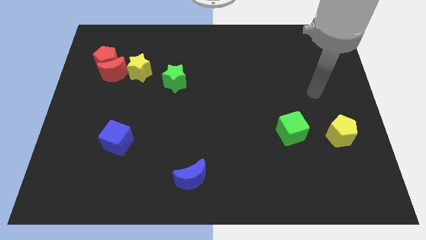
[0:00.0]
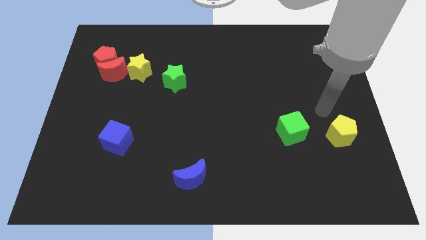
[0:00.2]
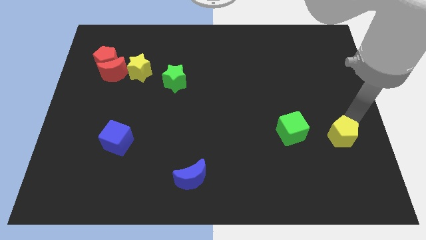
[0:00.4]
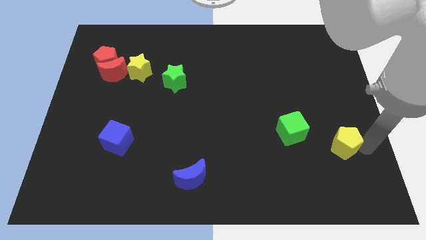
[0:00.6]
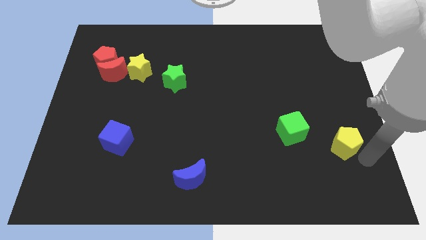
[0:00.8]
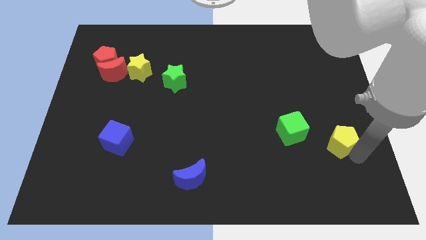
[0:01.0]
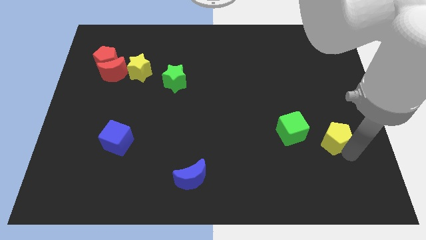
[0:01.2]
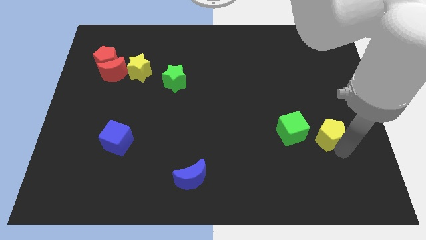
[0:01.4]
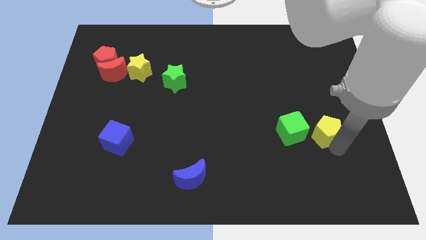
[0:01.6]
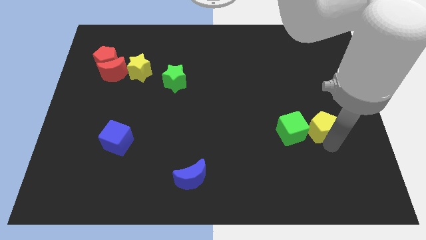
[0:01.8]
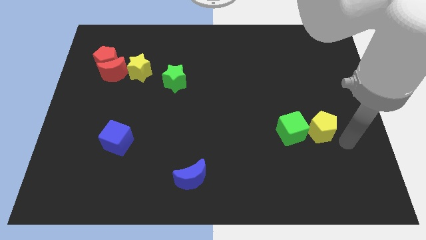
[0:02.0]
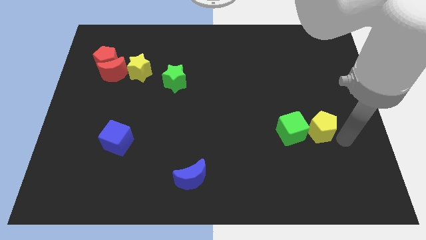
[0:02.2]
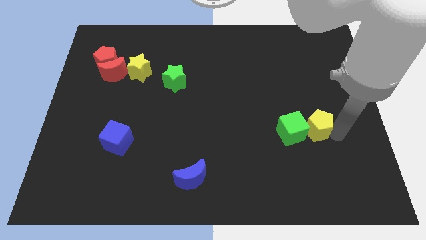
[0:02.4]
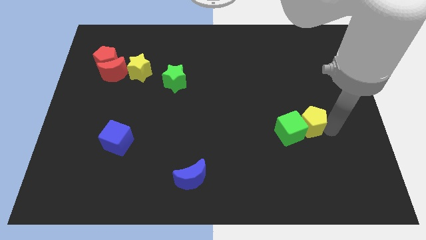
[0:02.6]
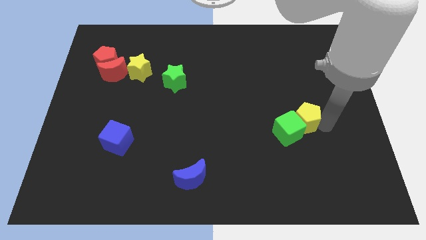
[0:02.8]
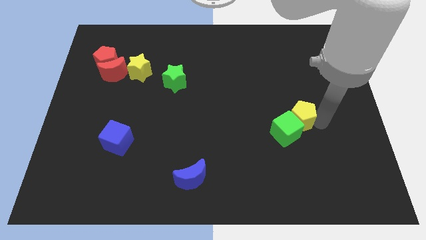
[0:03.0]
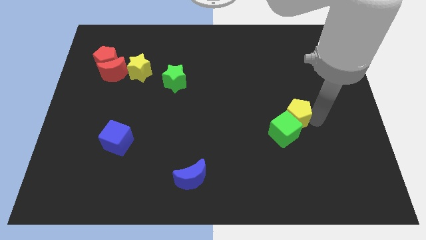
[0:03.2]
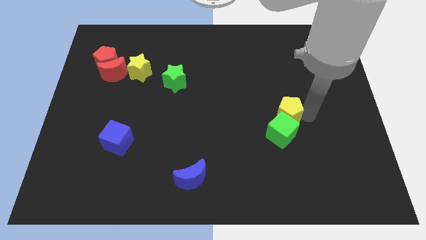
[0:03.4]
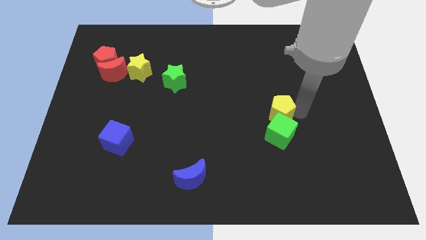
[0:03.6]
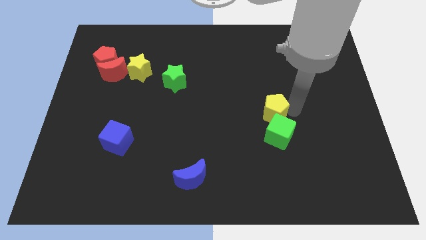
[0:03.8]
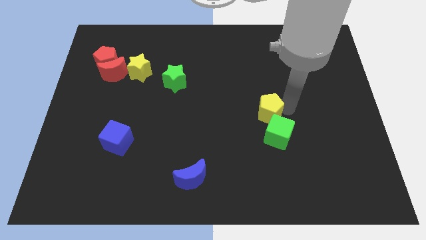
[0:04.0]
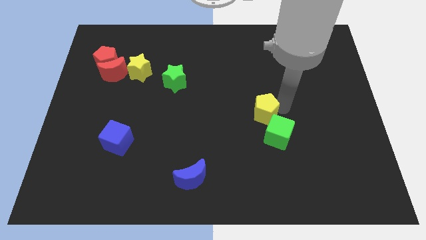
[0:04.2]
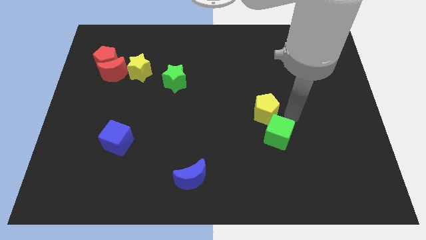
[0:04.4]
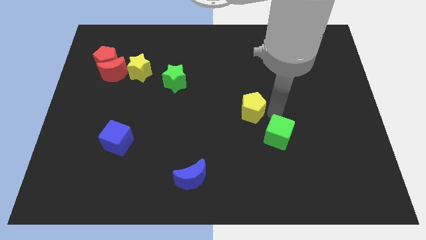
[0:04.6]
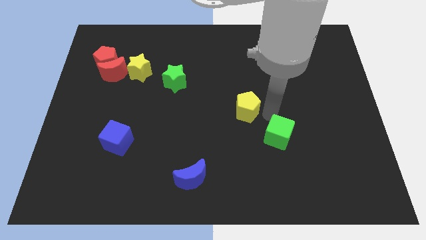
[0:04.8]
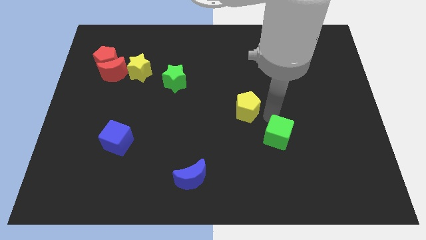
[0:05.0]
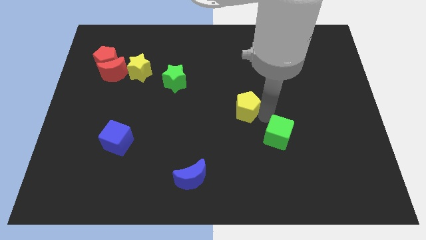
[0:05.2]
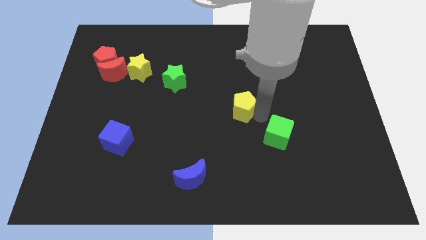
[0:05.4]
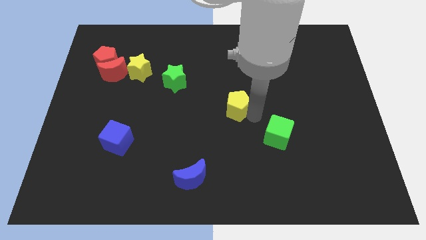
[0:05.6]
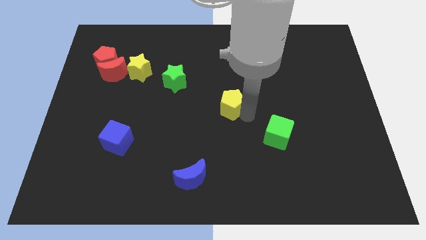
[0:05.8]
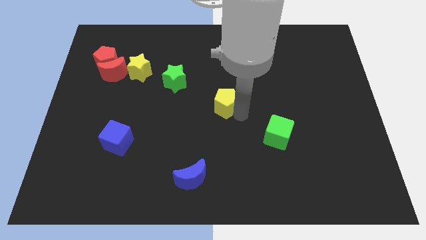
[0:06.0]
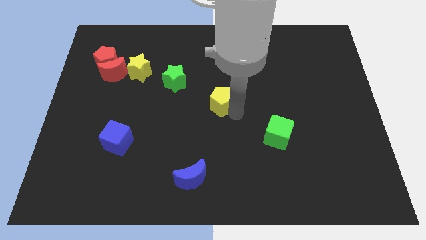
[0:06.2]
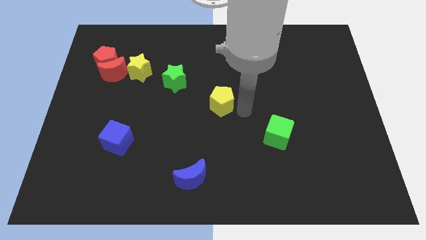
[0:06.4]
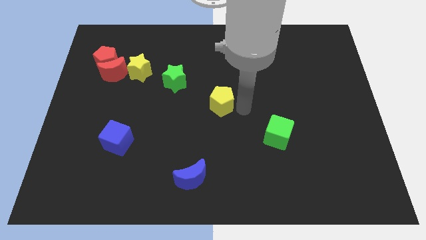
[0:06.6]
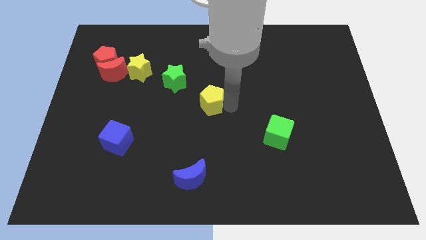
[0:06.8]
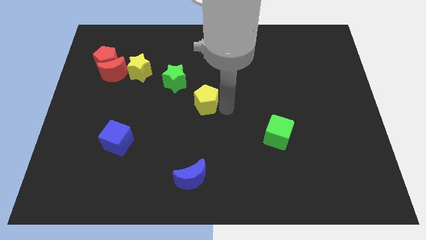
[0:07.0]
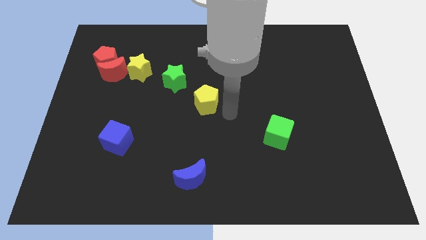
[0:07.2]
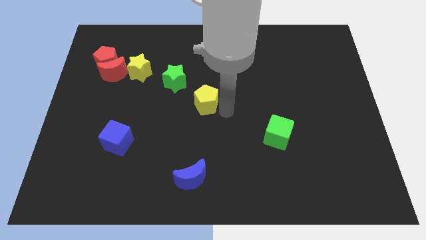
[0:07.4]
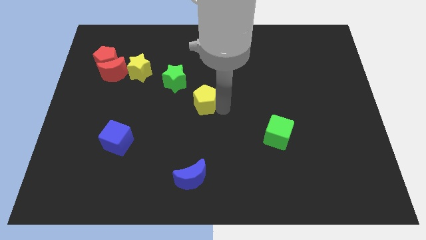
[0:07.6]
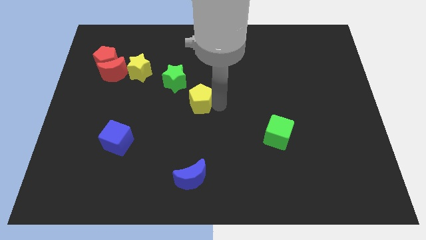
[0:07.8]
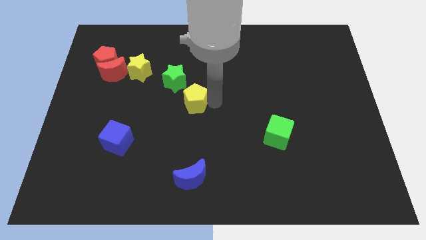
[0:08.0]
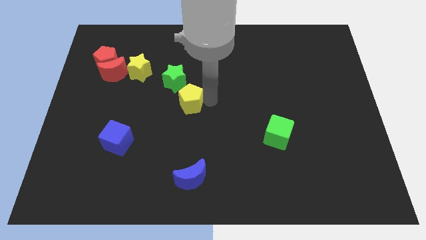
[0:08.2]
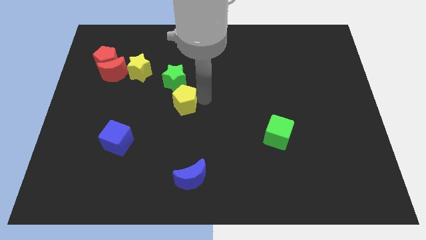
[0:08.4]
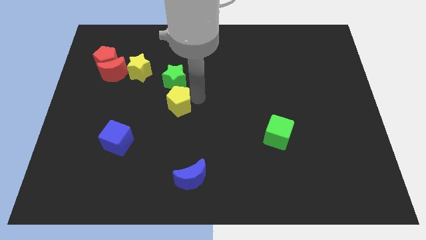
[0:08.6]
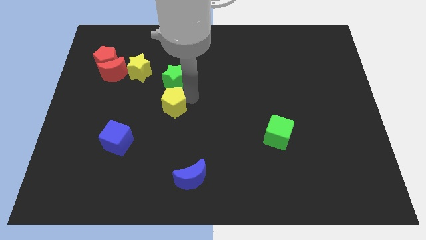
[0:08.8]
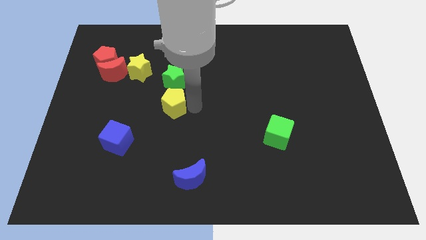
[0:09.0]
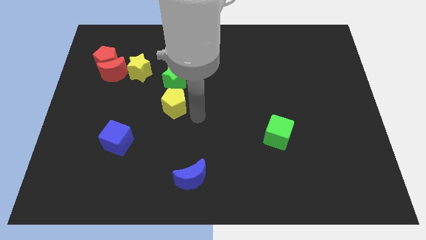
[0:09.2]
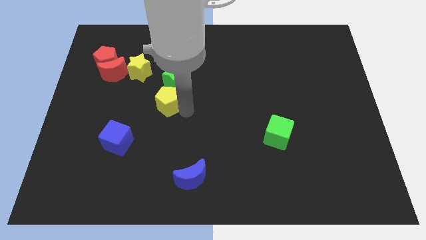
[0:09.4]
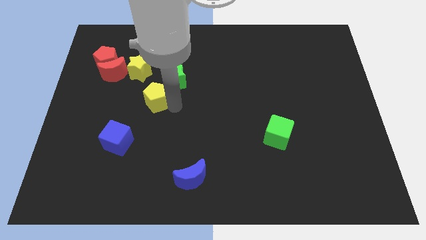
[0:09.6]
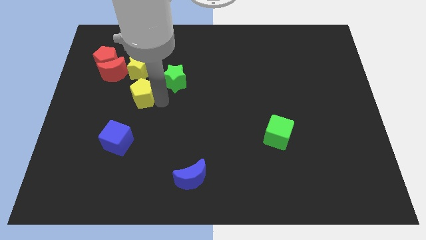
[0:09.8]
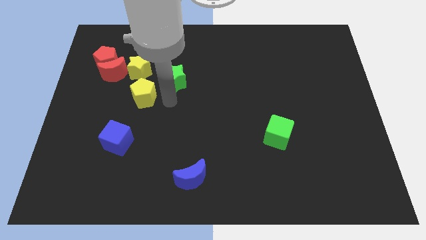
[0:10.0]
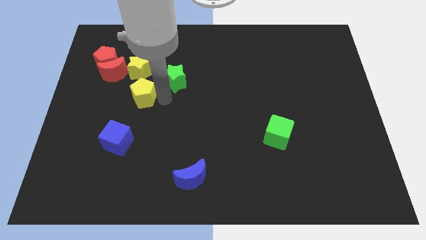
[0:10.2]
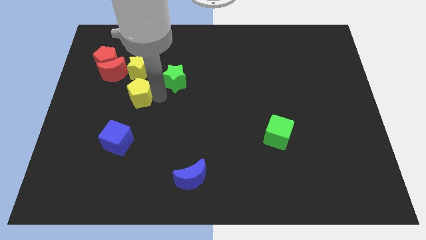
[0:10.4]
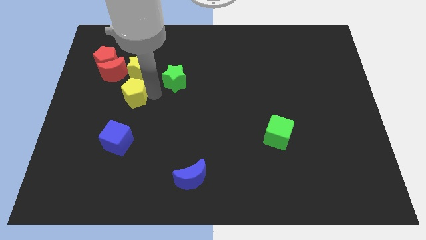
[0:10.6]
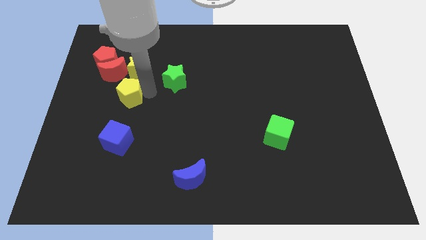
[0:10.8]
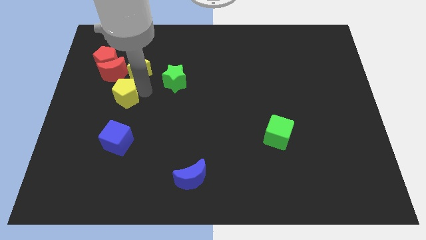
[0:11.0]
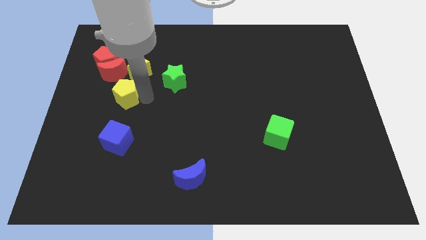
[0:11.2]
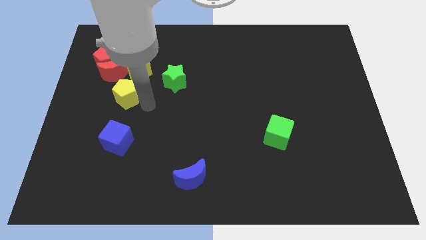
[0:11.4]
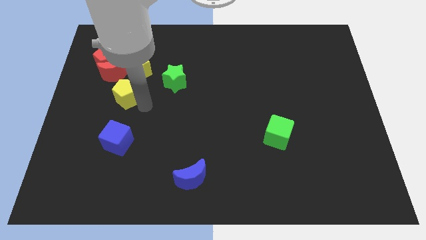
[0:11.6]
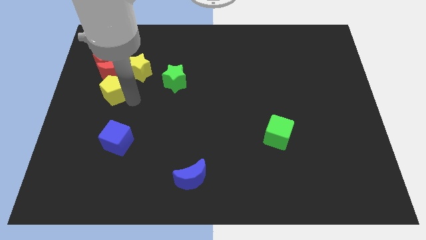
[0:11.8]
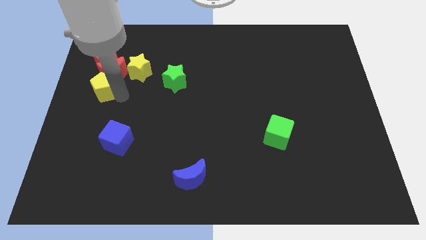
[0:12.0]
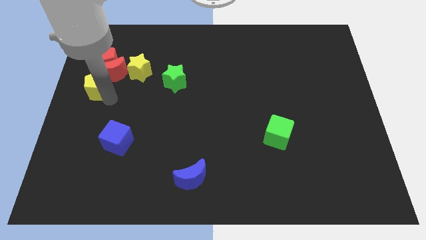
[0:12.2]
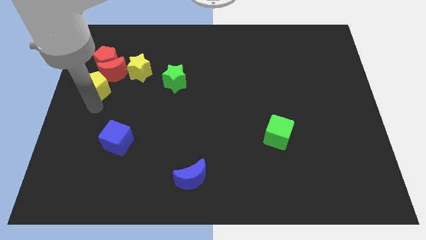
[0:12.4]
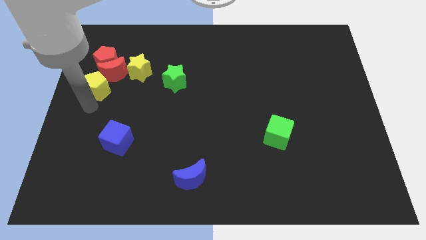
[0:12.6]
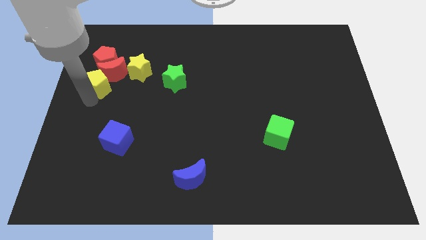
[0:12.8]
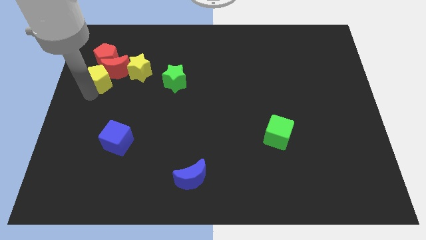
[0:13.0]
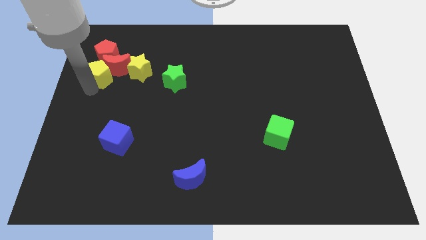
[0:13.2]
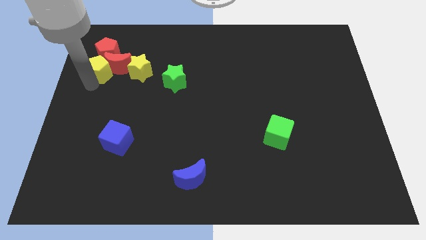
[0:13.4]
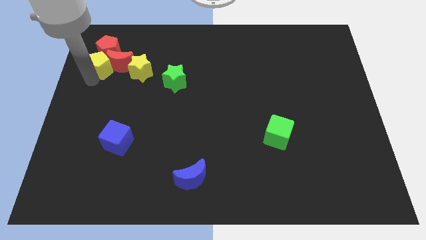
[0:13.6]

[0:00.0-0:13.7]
push the yellow pentagon to the red pentagon
